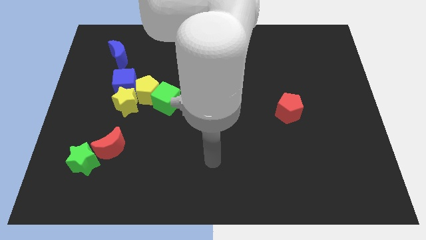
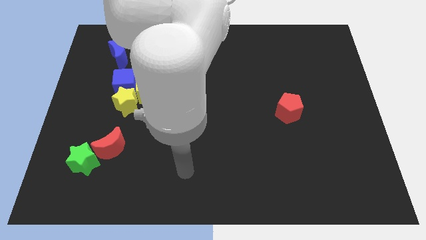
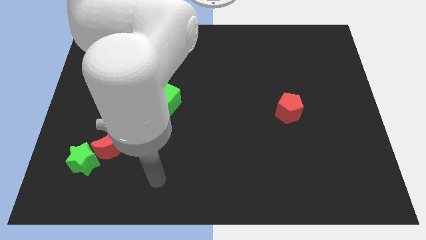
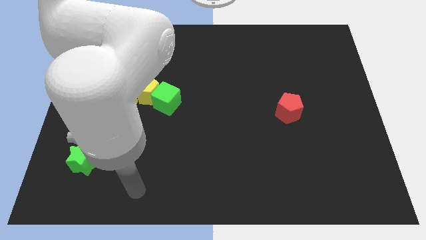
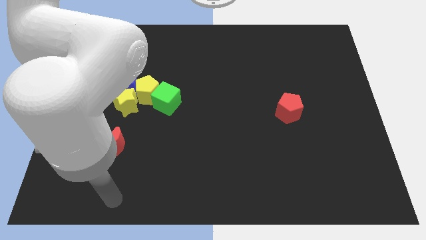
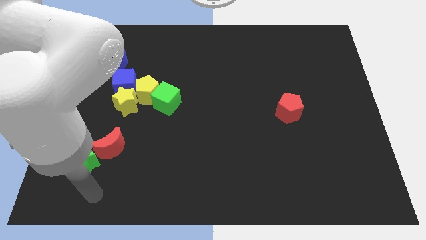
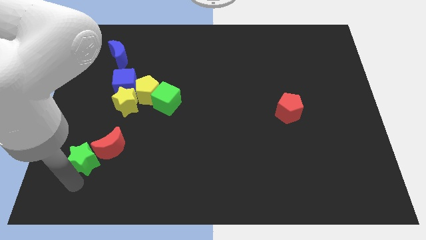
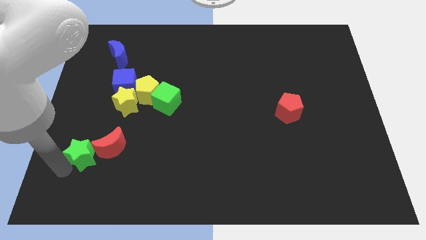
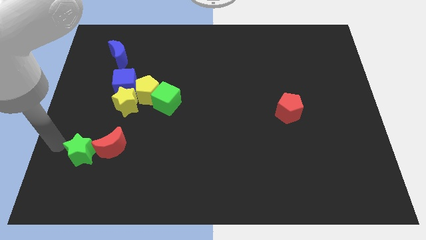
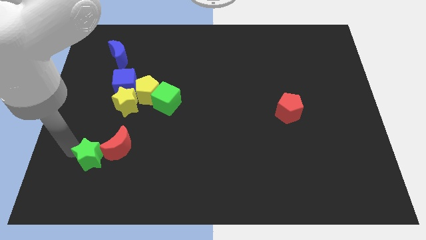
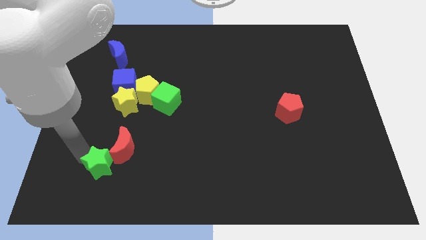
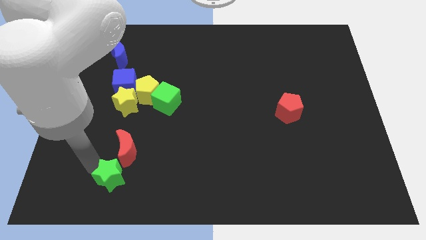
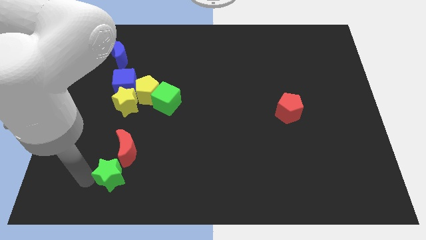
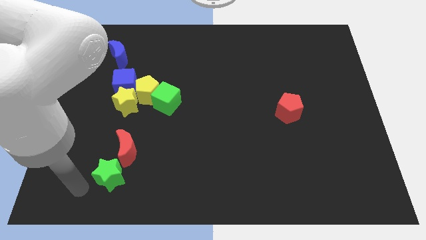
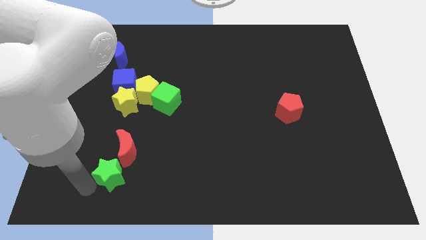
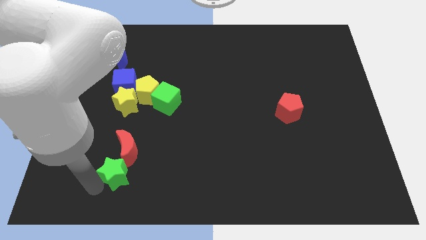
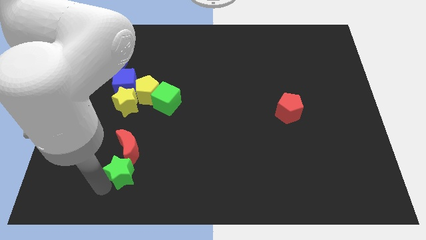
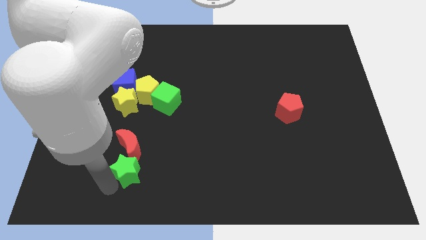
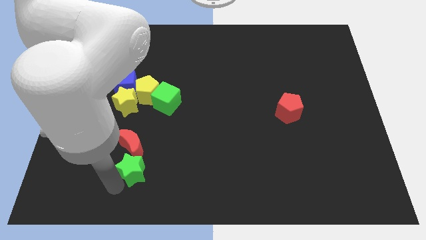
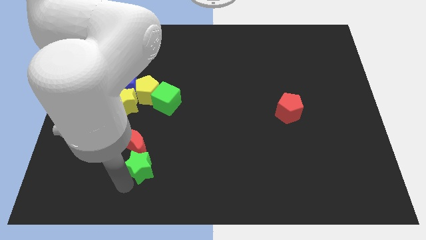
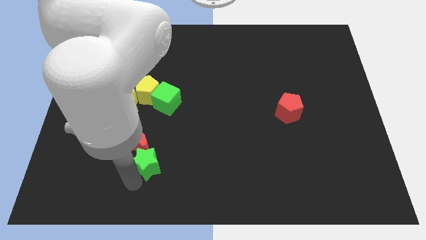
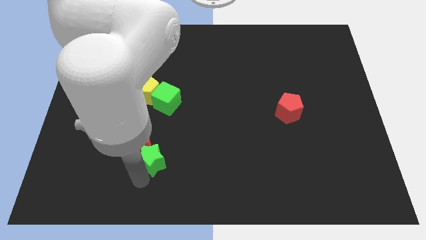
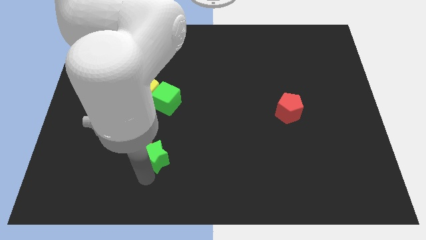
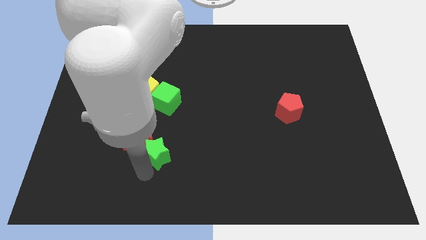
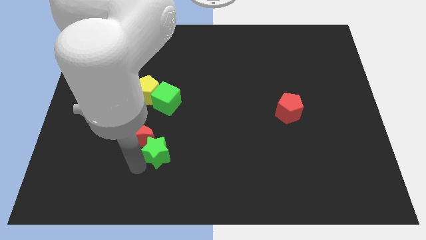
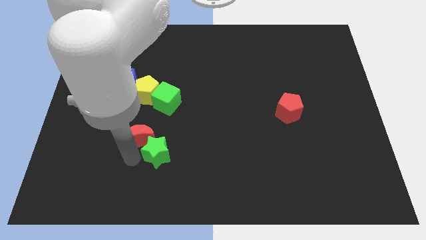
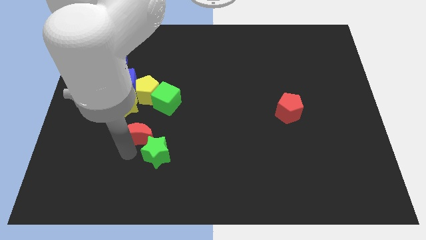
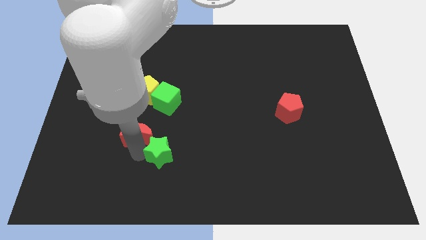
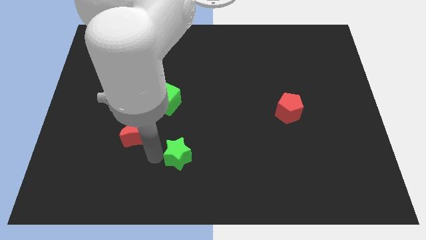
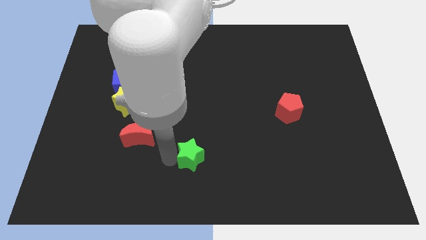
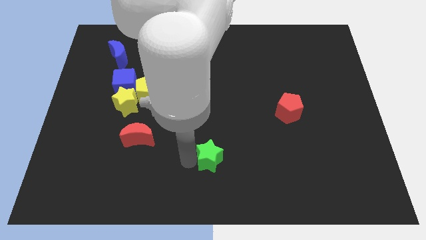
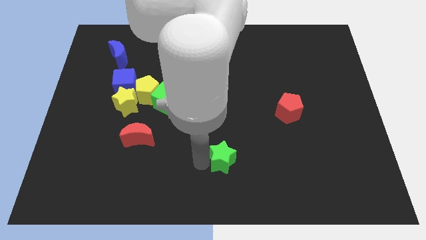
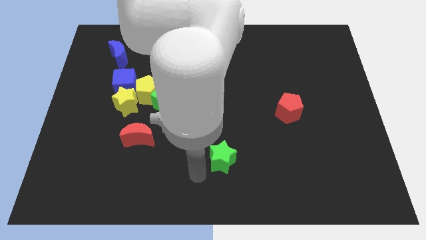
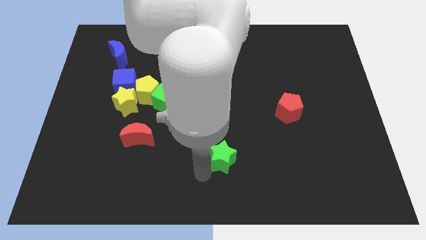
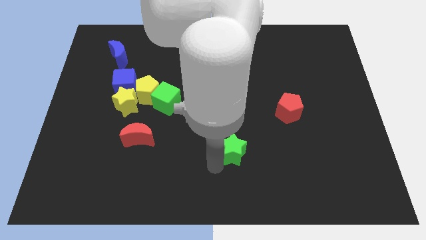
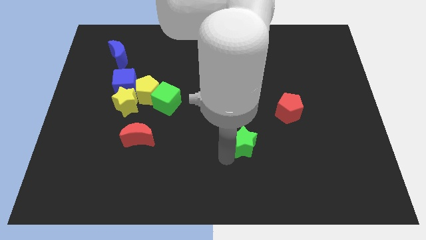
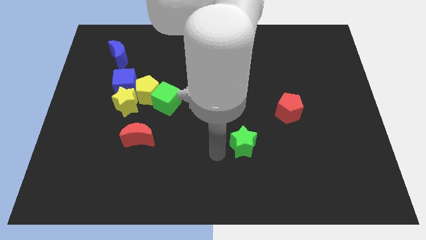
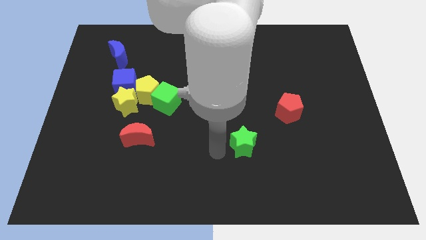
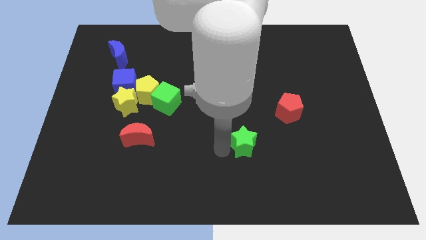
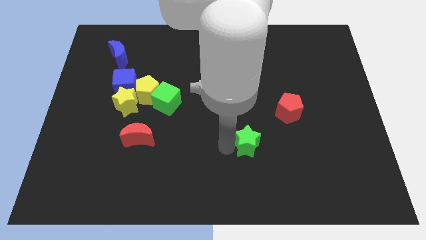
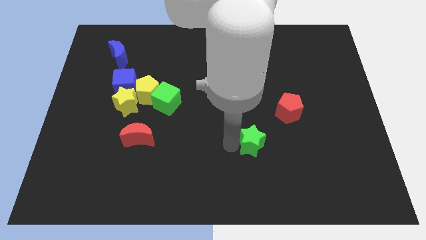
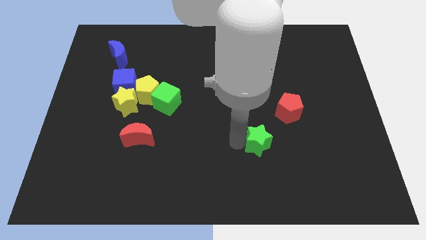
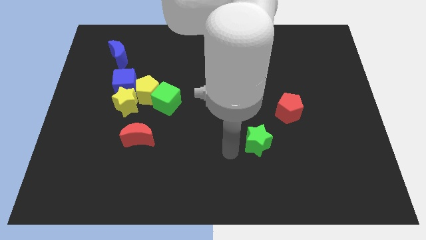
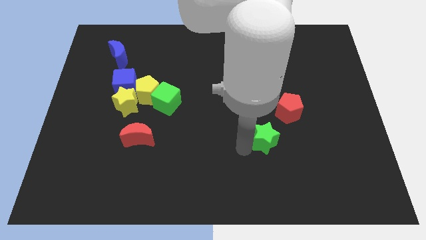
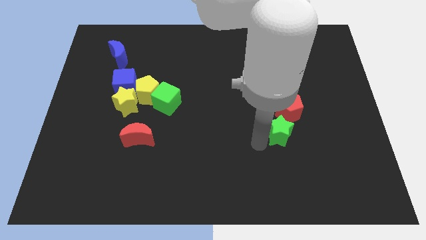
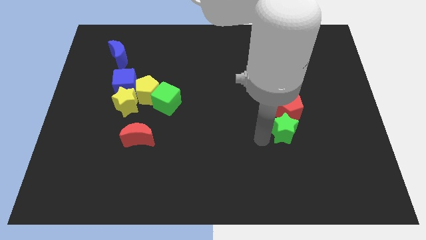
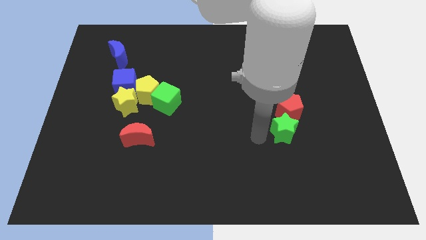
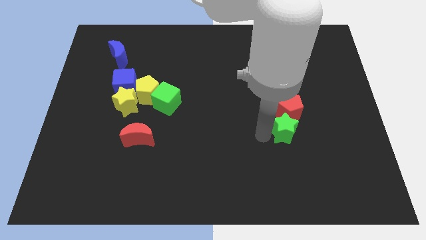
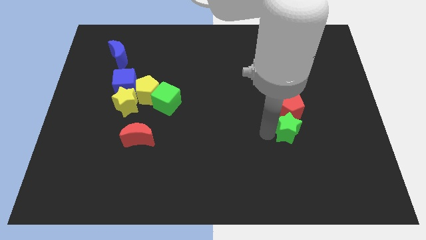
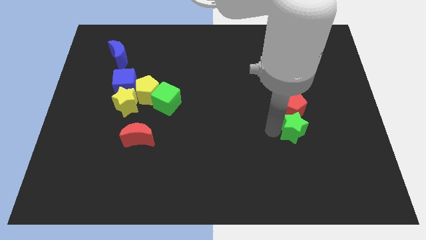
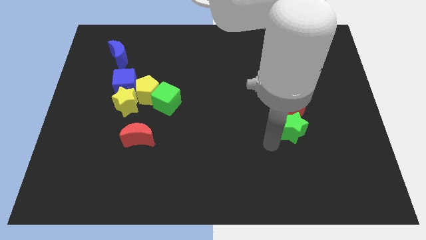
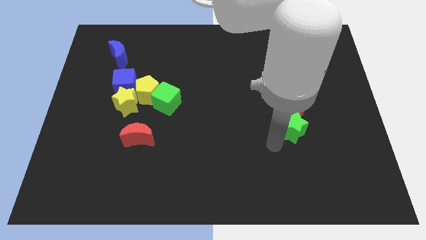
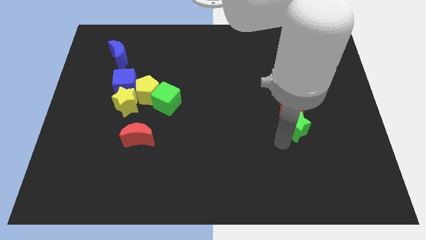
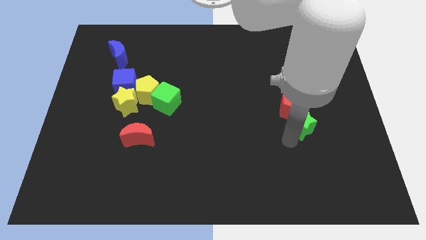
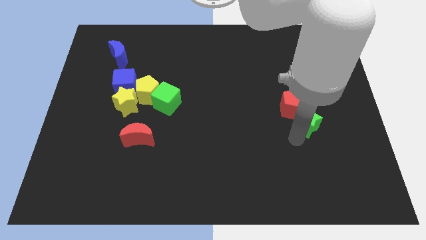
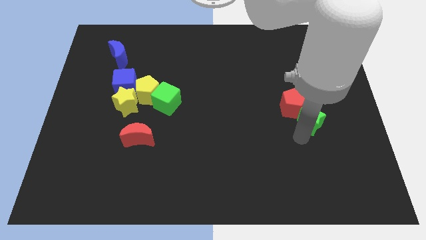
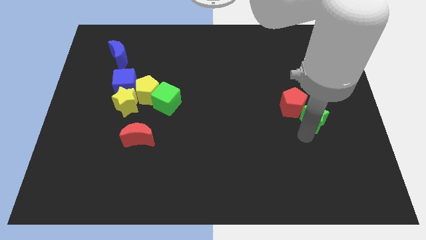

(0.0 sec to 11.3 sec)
put the green star to the right side of the red pentagon
